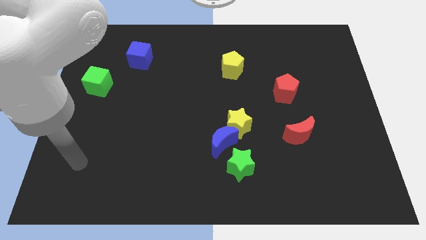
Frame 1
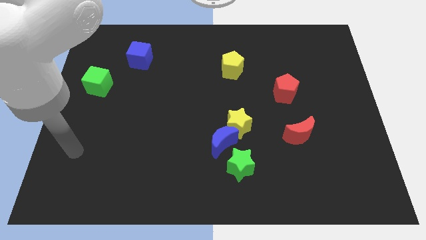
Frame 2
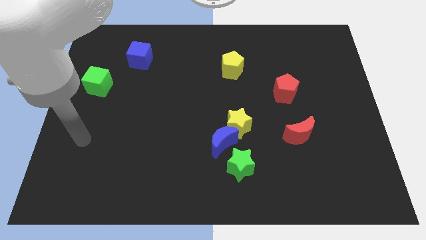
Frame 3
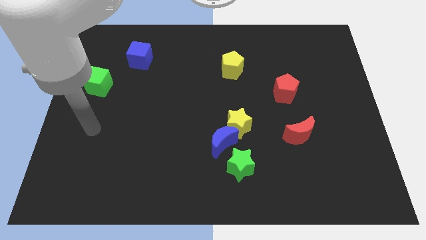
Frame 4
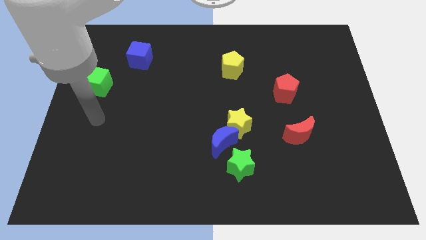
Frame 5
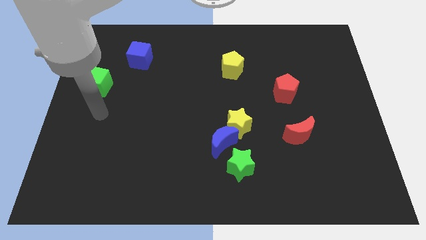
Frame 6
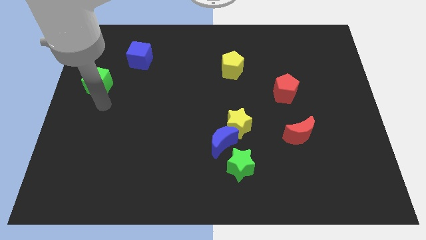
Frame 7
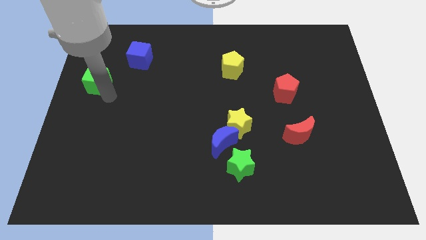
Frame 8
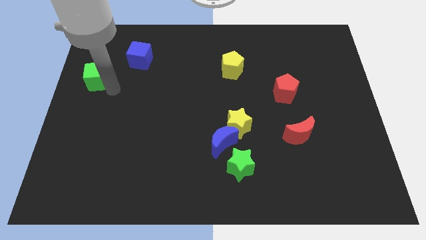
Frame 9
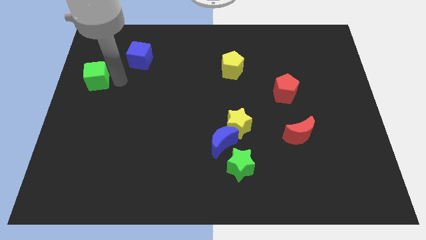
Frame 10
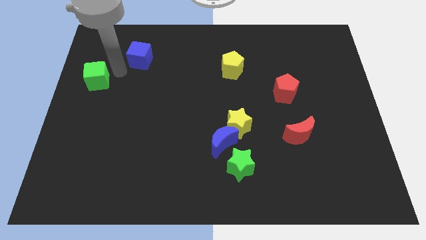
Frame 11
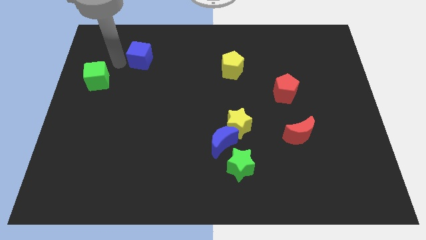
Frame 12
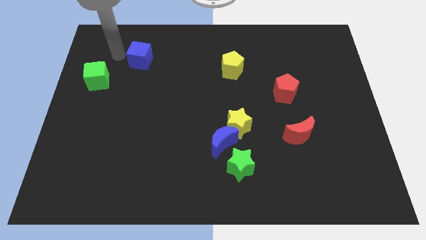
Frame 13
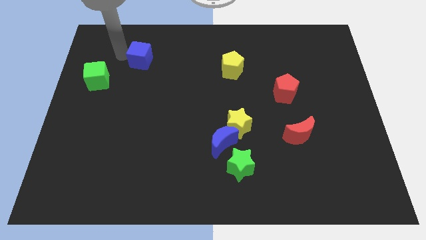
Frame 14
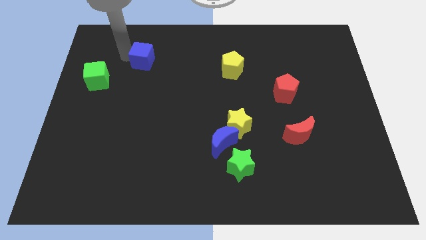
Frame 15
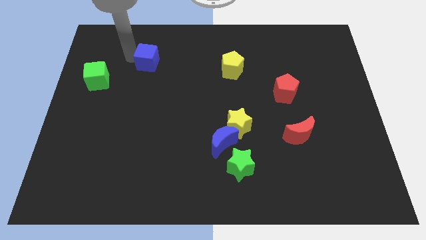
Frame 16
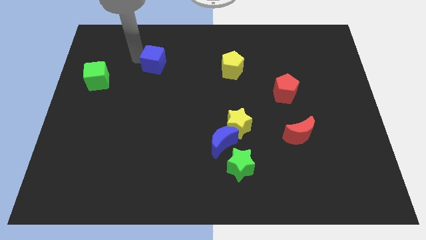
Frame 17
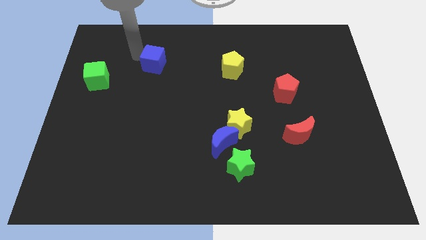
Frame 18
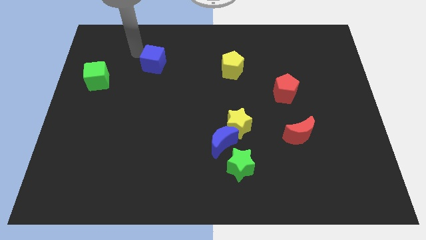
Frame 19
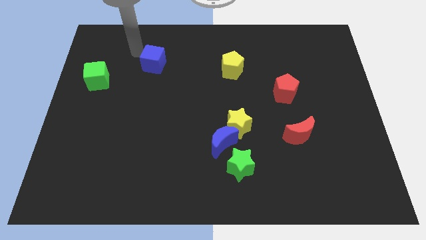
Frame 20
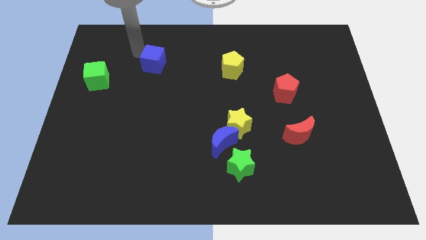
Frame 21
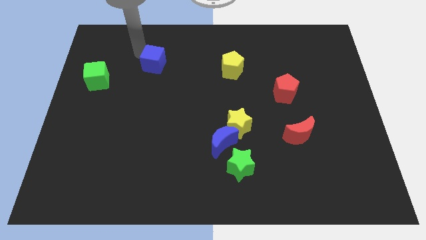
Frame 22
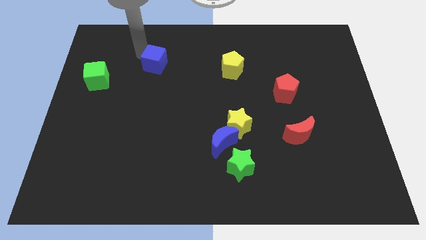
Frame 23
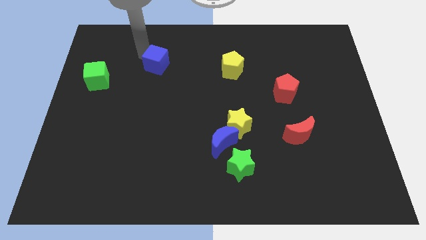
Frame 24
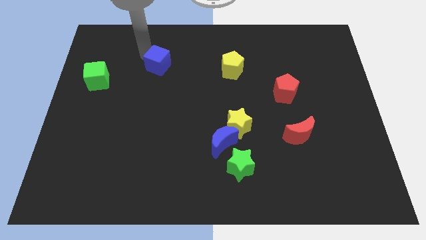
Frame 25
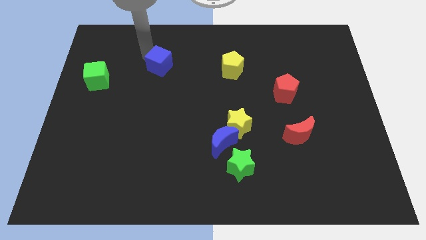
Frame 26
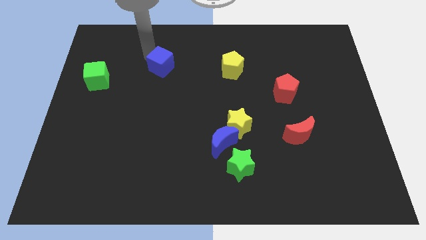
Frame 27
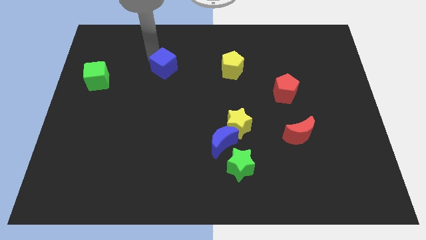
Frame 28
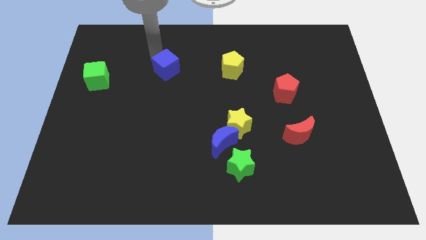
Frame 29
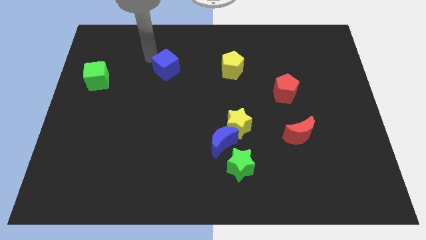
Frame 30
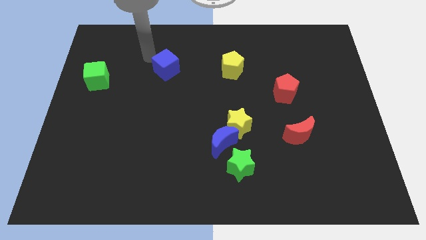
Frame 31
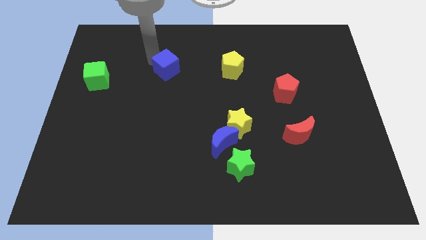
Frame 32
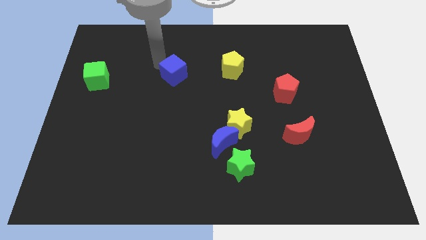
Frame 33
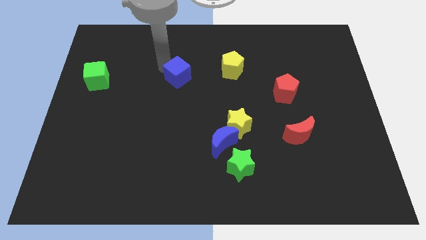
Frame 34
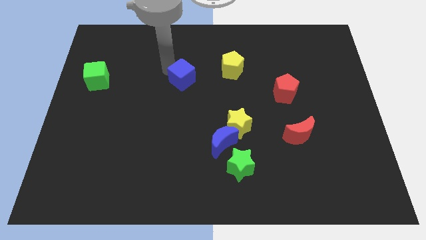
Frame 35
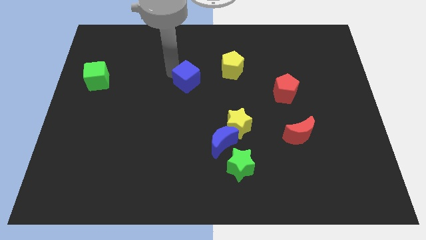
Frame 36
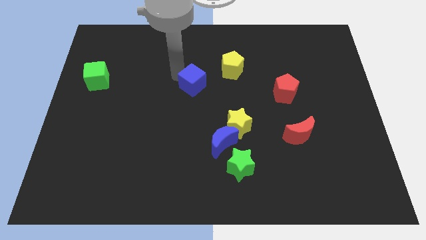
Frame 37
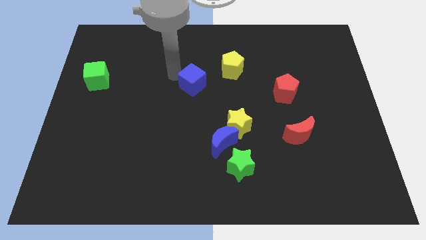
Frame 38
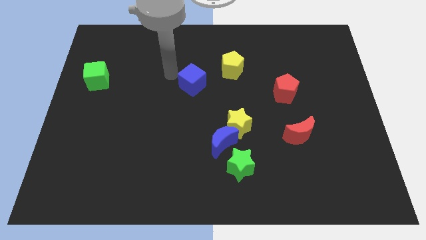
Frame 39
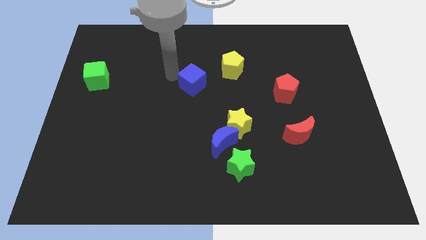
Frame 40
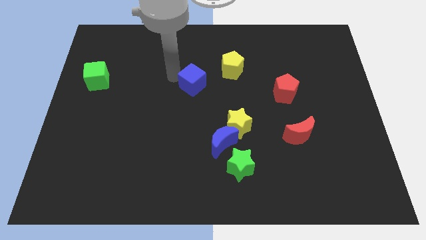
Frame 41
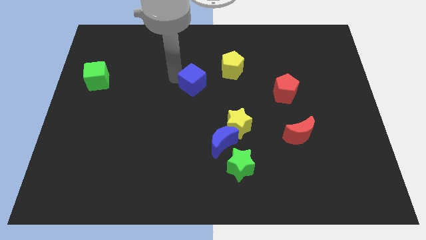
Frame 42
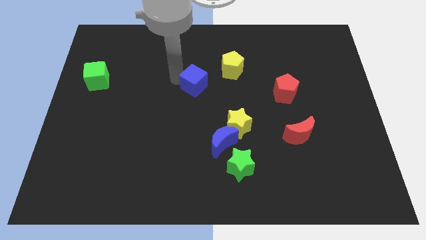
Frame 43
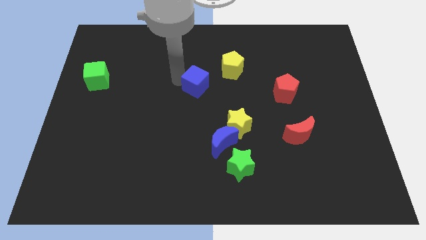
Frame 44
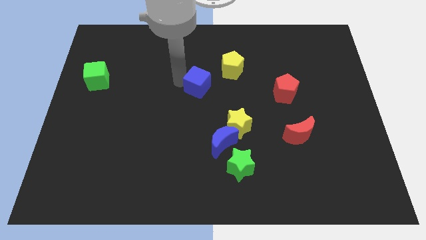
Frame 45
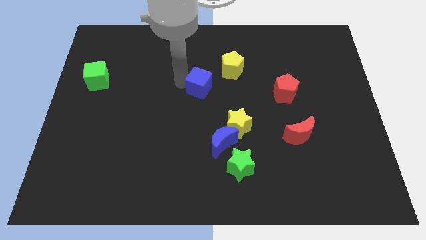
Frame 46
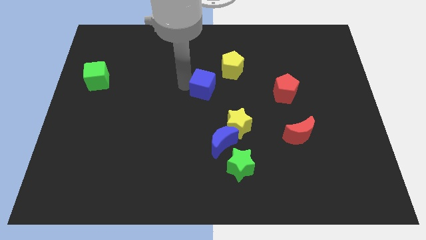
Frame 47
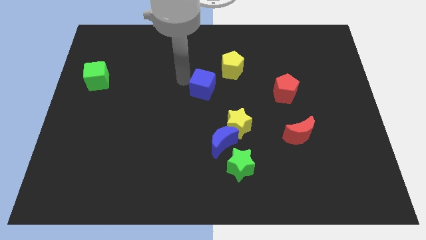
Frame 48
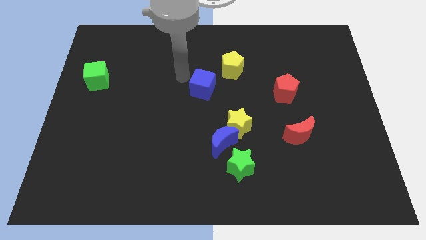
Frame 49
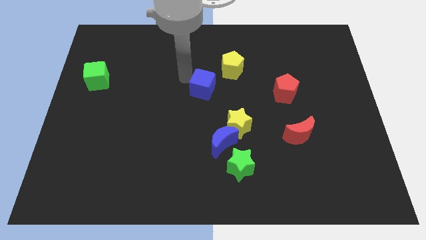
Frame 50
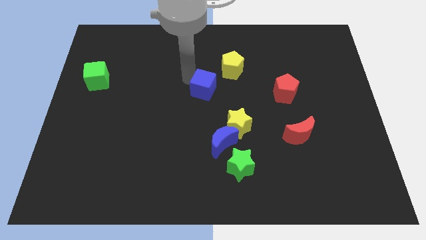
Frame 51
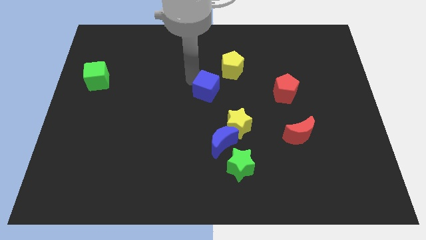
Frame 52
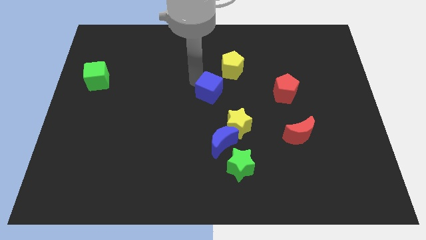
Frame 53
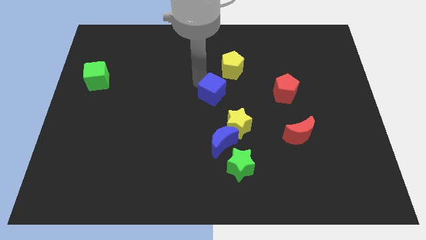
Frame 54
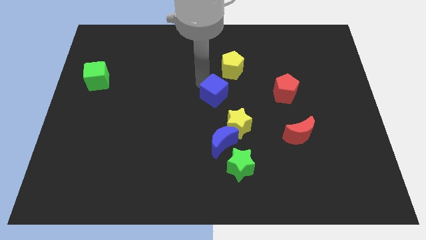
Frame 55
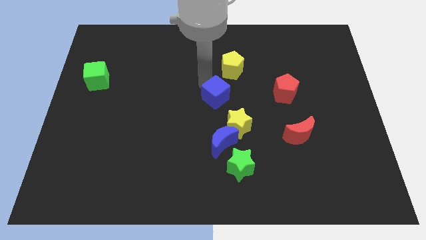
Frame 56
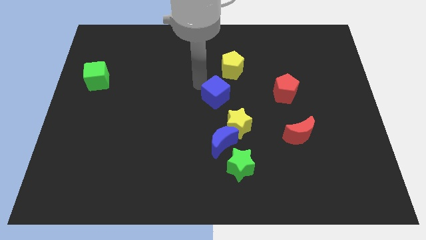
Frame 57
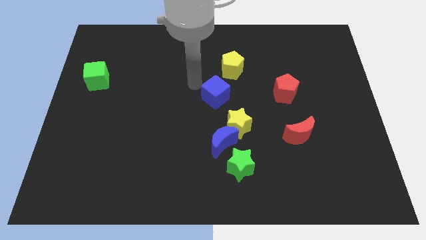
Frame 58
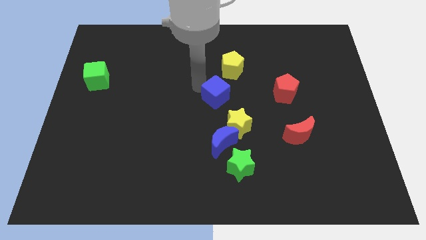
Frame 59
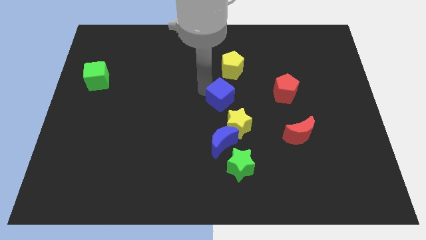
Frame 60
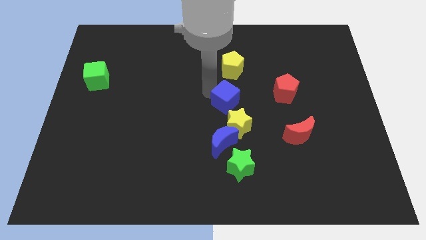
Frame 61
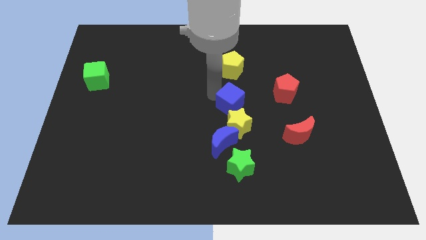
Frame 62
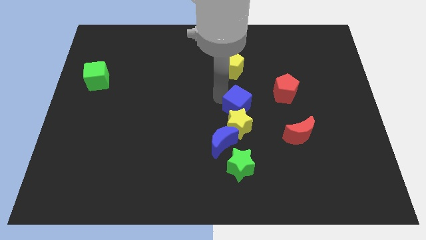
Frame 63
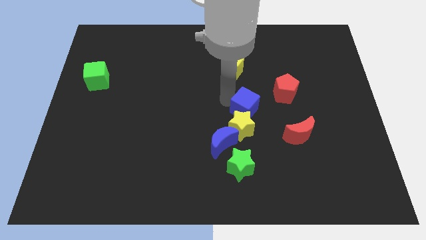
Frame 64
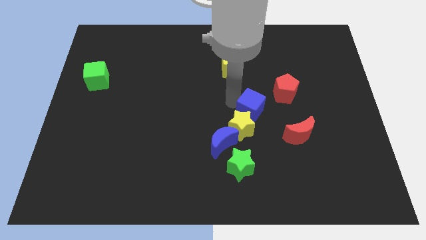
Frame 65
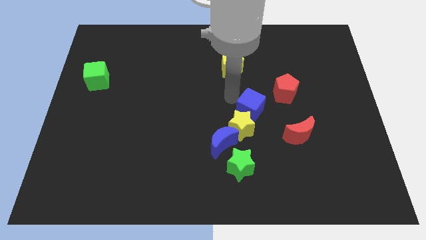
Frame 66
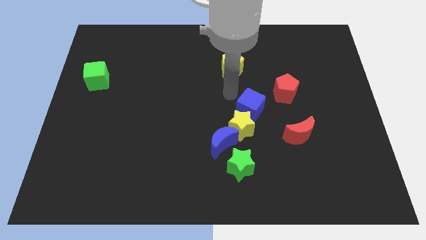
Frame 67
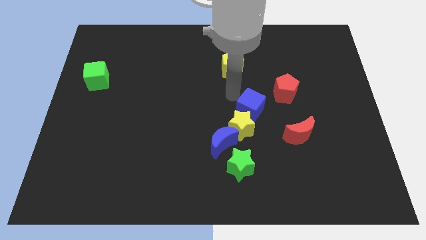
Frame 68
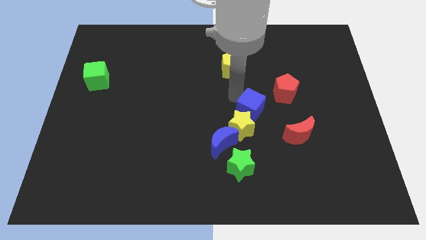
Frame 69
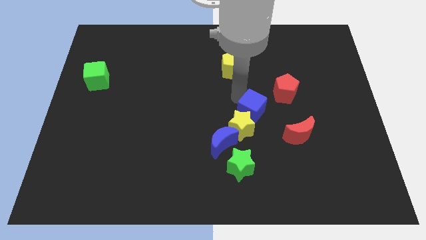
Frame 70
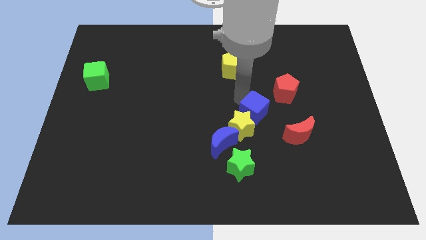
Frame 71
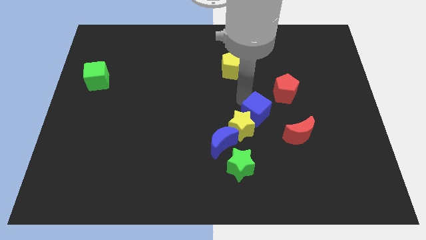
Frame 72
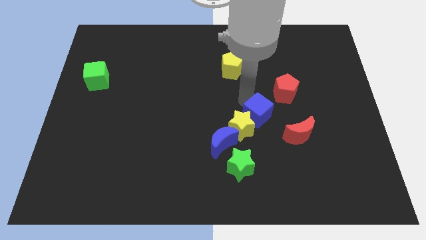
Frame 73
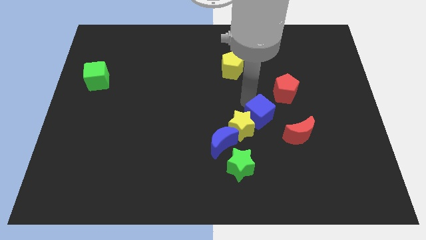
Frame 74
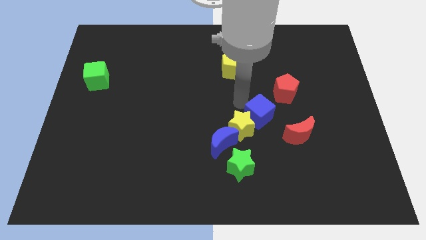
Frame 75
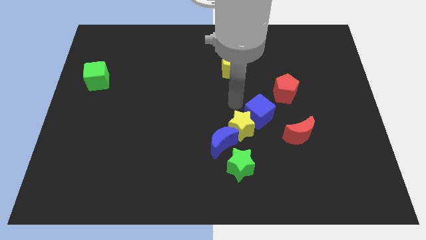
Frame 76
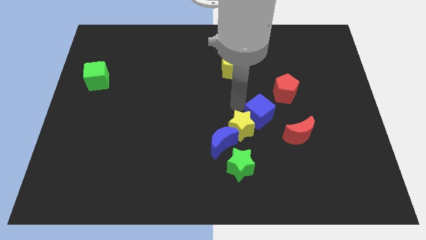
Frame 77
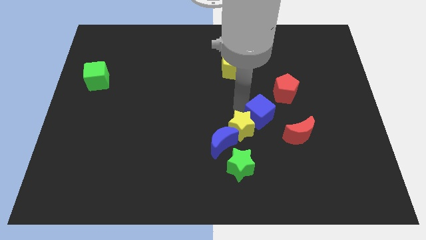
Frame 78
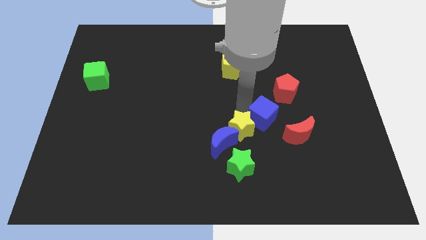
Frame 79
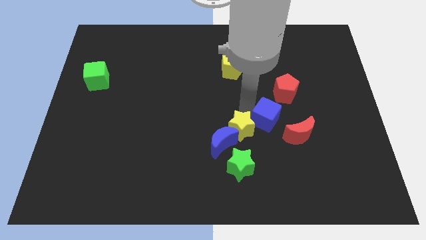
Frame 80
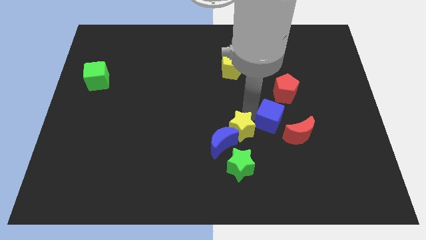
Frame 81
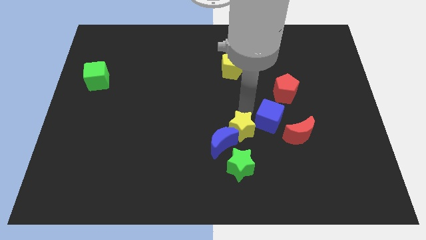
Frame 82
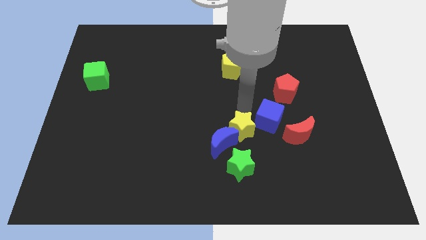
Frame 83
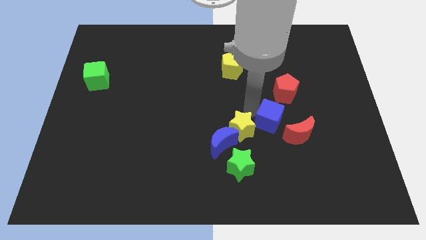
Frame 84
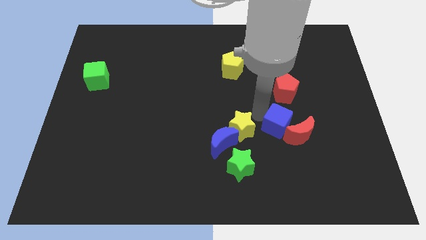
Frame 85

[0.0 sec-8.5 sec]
push the blue cube to the red moon
